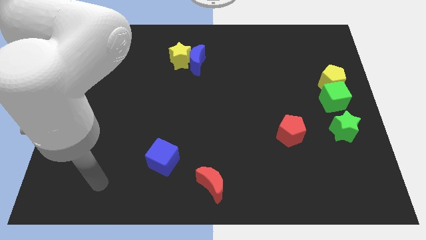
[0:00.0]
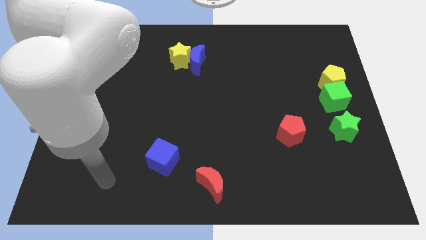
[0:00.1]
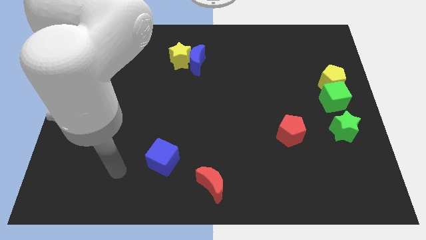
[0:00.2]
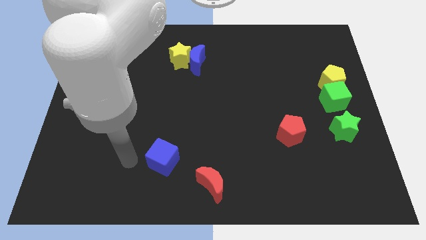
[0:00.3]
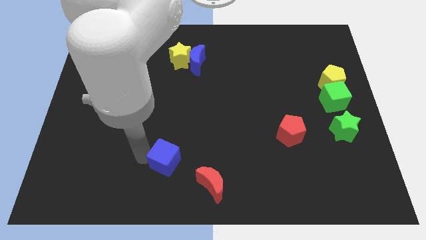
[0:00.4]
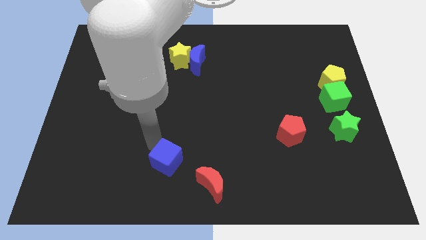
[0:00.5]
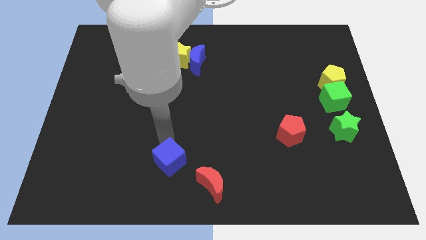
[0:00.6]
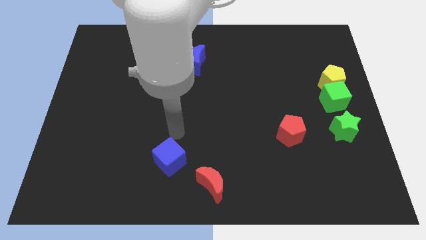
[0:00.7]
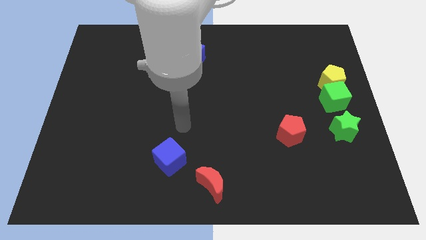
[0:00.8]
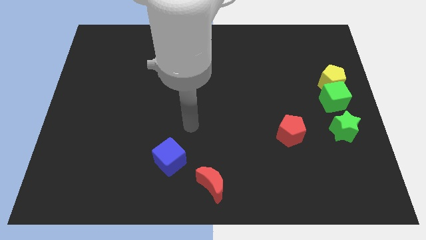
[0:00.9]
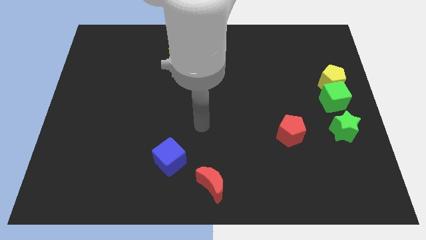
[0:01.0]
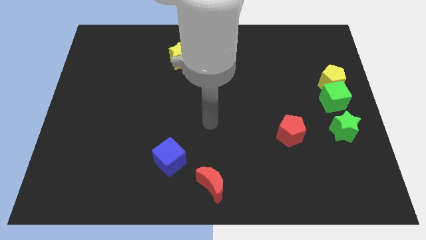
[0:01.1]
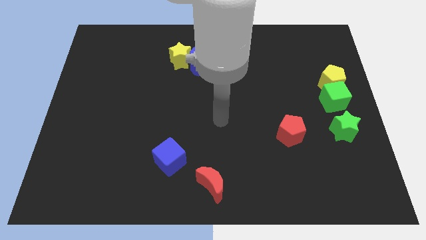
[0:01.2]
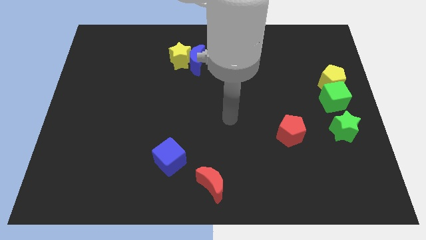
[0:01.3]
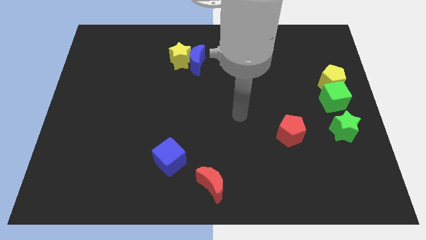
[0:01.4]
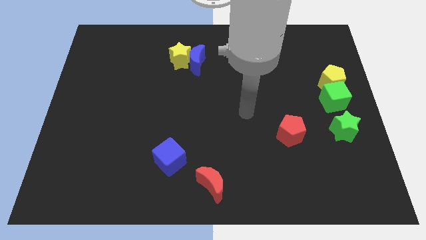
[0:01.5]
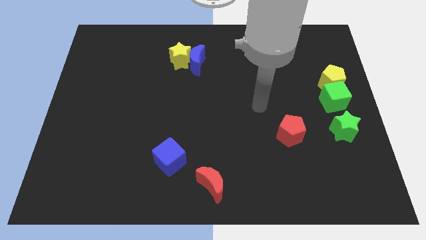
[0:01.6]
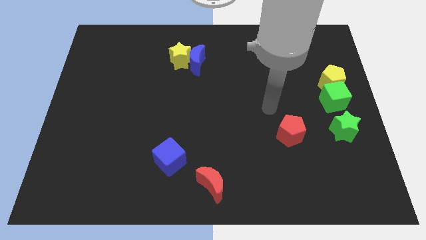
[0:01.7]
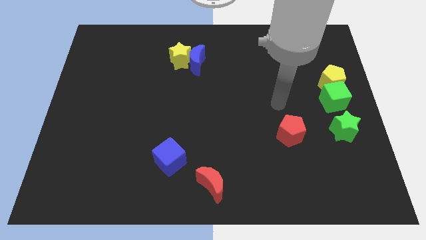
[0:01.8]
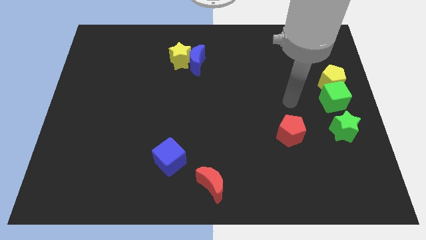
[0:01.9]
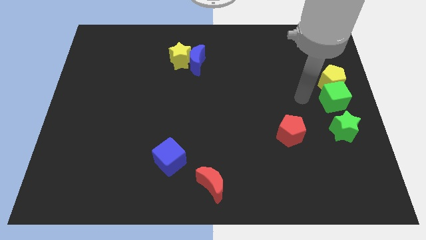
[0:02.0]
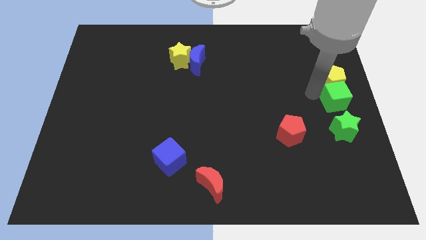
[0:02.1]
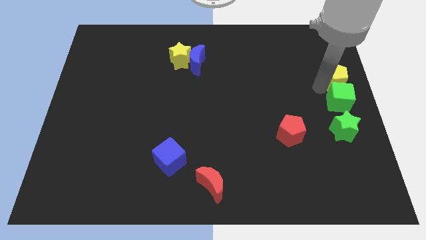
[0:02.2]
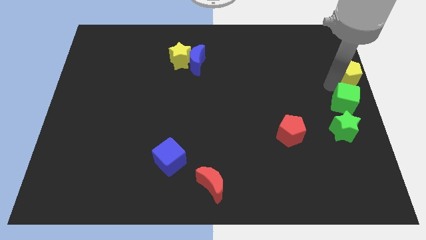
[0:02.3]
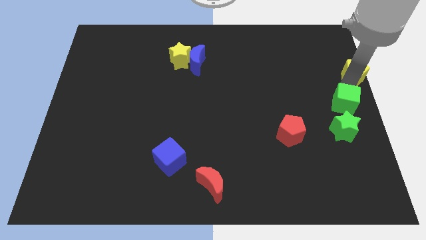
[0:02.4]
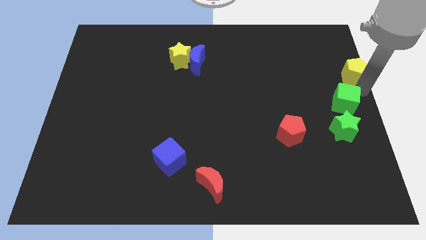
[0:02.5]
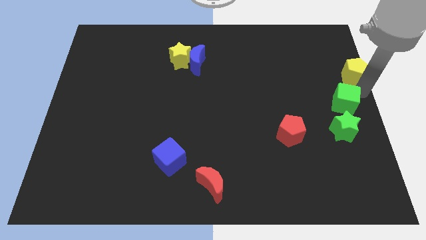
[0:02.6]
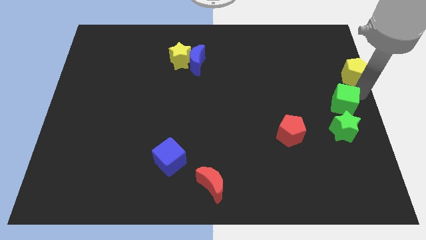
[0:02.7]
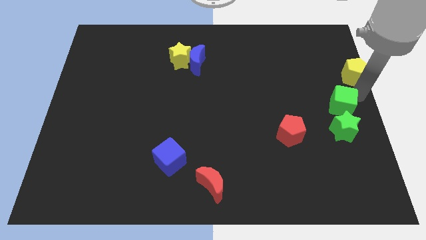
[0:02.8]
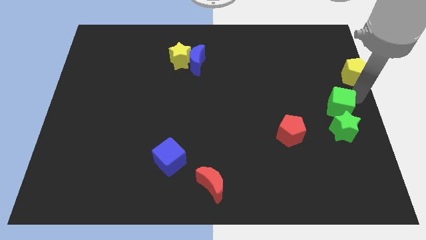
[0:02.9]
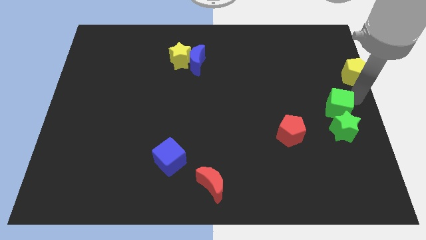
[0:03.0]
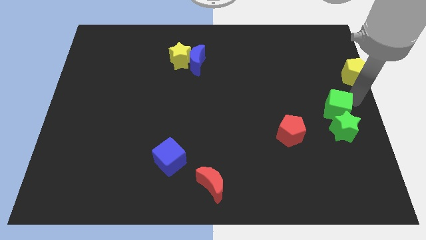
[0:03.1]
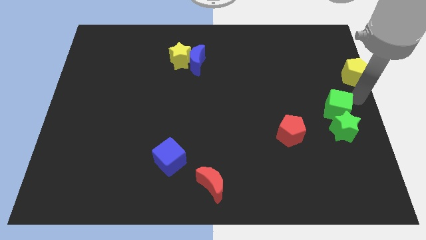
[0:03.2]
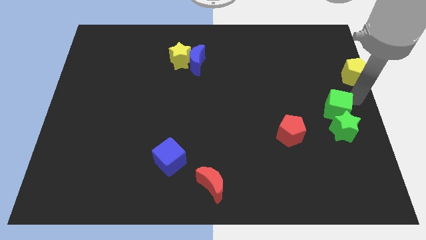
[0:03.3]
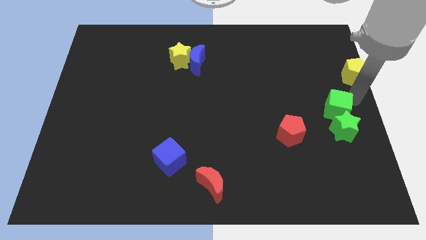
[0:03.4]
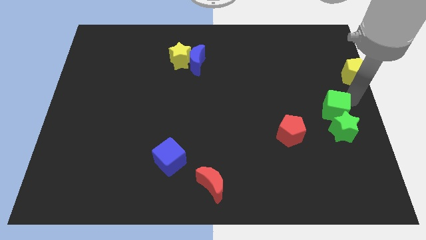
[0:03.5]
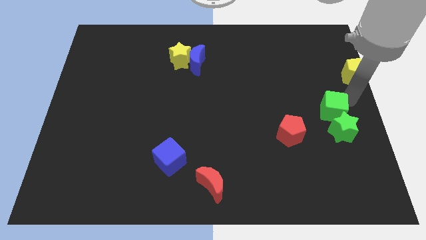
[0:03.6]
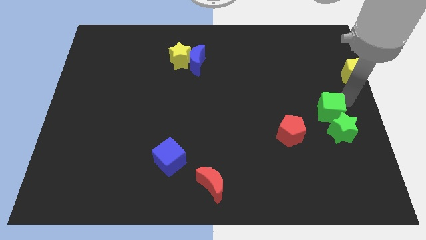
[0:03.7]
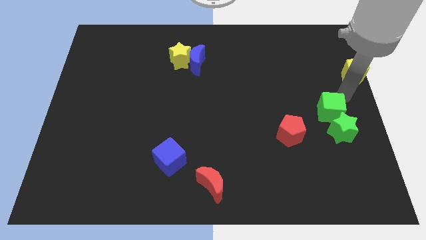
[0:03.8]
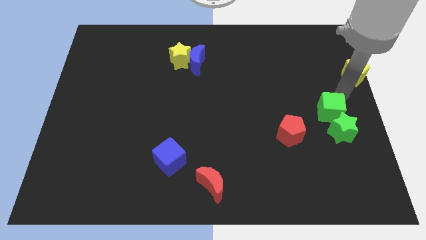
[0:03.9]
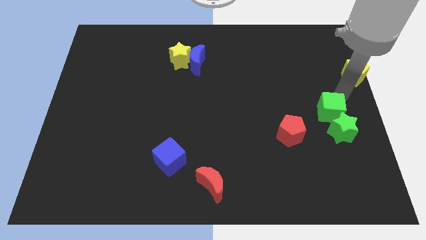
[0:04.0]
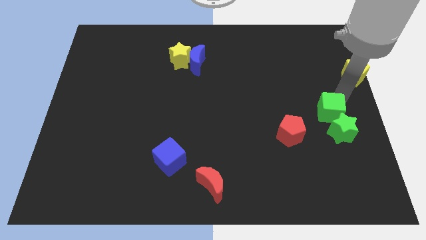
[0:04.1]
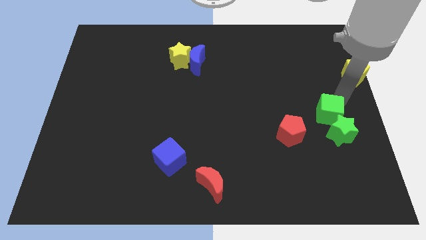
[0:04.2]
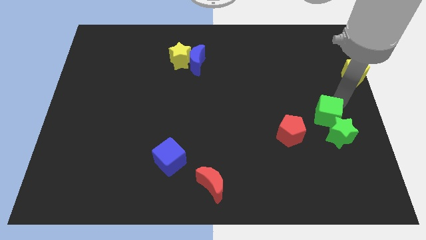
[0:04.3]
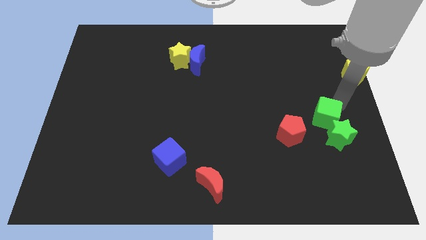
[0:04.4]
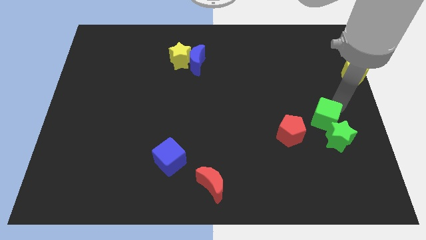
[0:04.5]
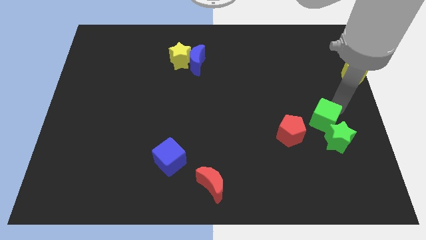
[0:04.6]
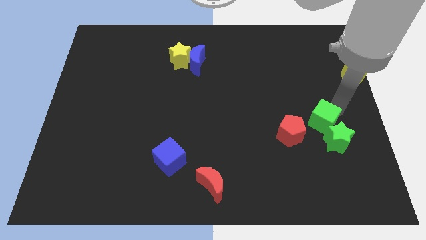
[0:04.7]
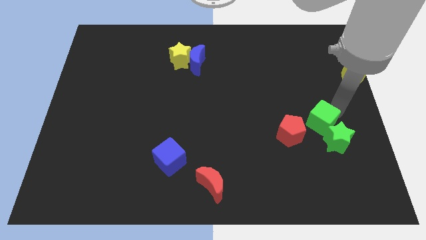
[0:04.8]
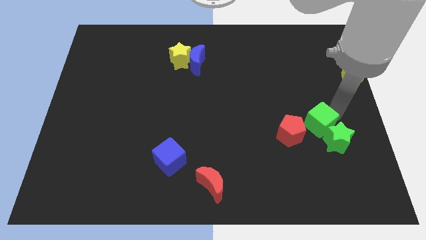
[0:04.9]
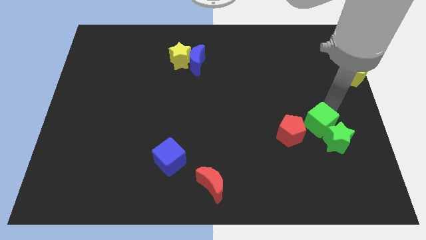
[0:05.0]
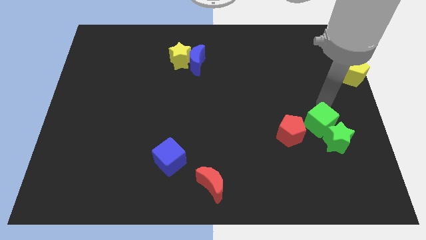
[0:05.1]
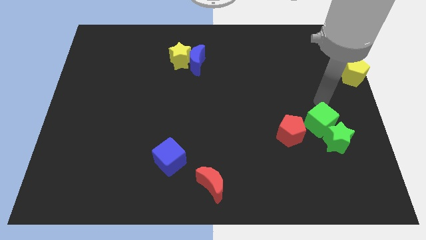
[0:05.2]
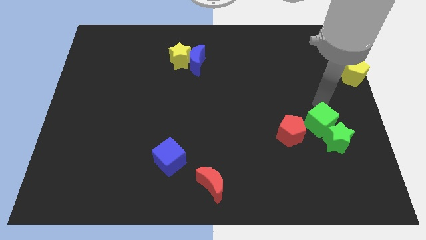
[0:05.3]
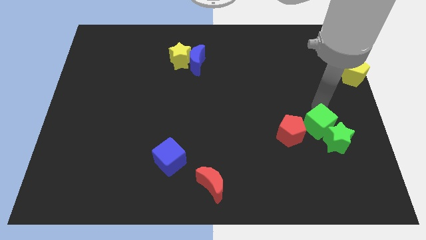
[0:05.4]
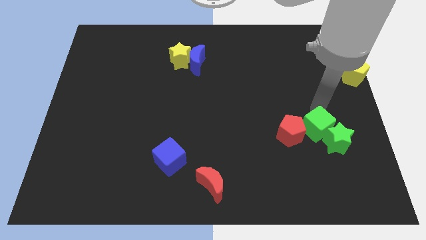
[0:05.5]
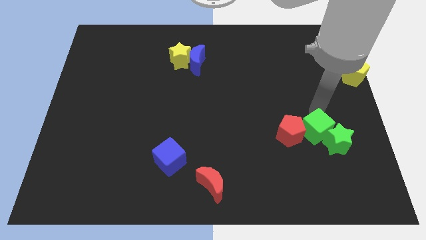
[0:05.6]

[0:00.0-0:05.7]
push the green cube diagonally down and to the right of the red pentagon

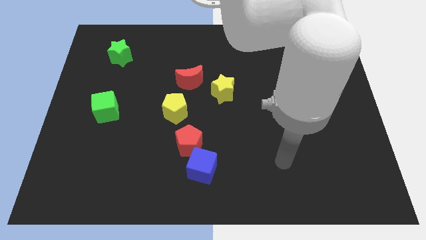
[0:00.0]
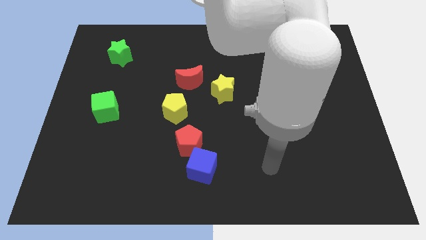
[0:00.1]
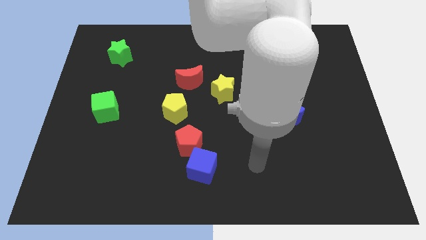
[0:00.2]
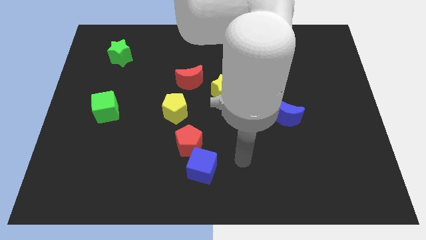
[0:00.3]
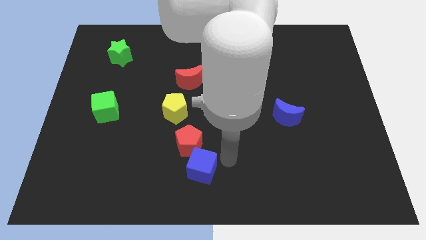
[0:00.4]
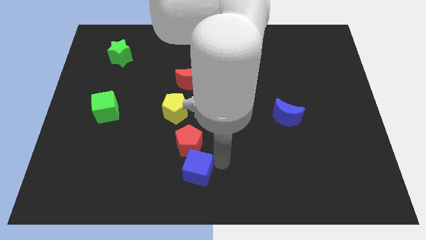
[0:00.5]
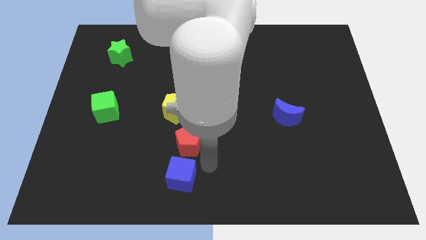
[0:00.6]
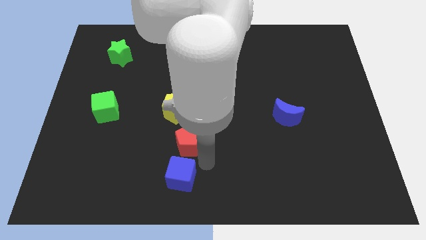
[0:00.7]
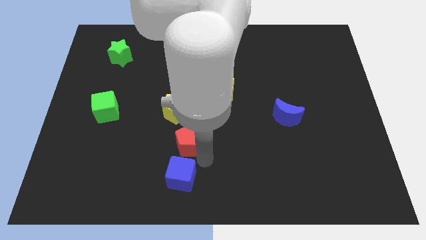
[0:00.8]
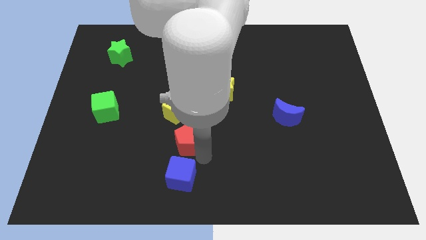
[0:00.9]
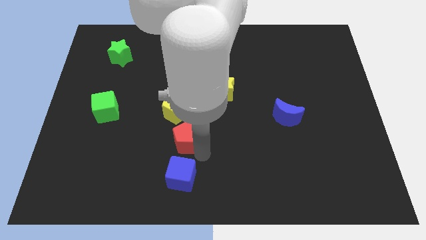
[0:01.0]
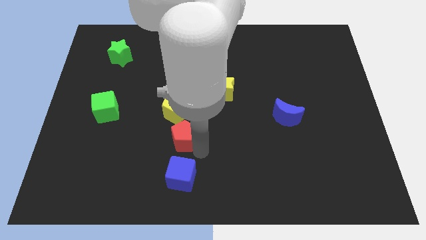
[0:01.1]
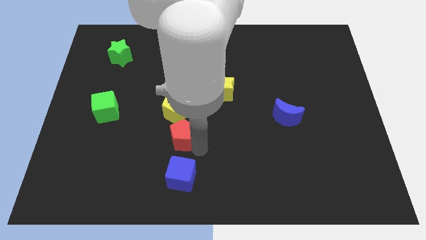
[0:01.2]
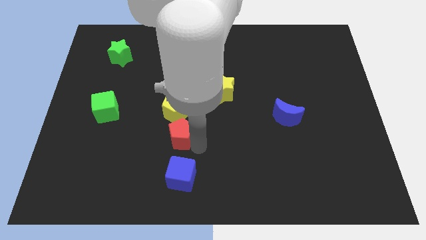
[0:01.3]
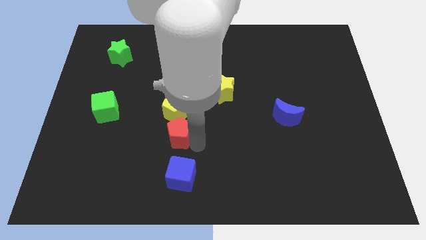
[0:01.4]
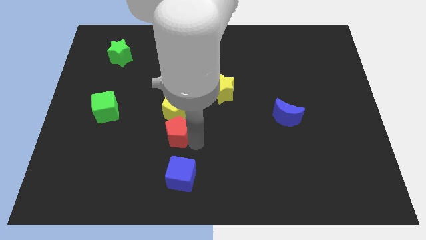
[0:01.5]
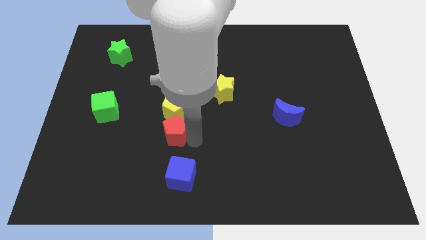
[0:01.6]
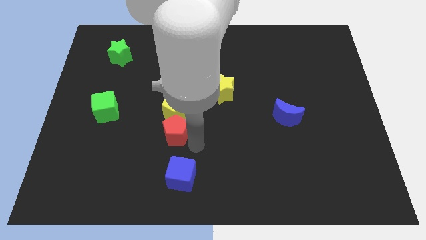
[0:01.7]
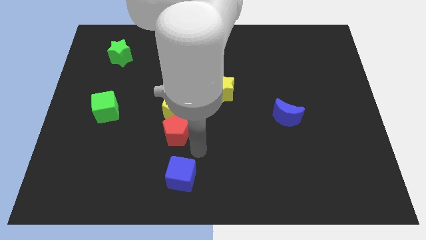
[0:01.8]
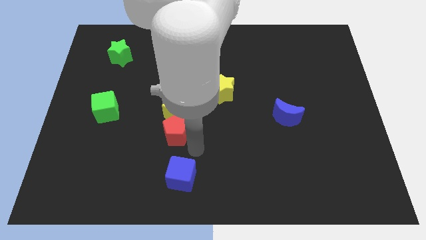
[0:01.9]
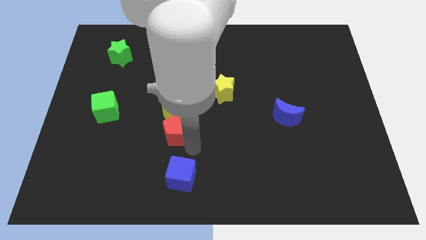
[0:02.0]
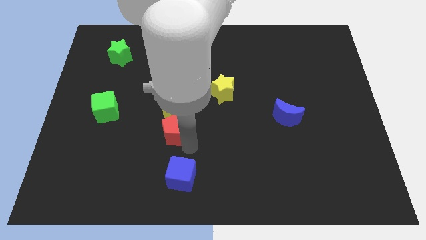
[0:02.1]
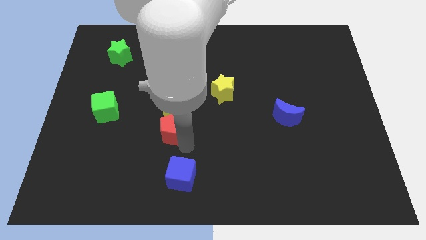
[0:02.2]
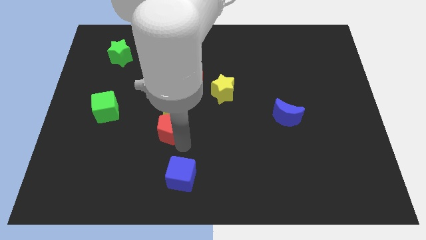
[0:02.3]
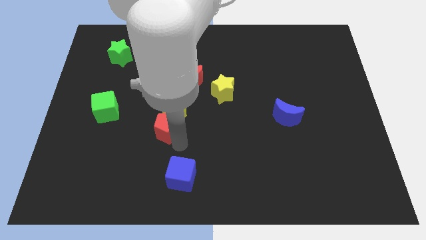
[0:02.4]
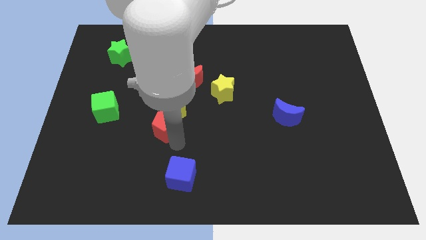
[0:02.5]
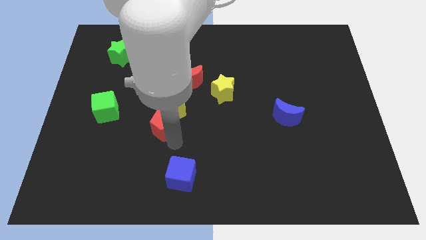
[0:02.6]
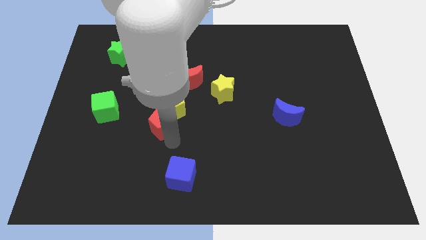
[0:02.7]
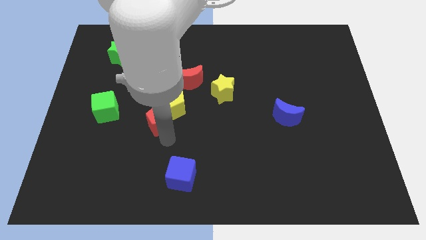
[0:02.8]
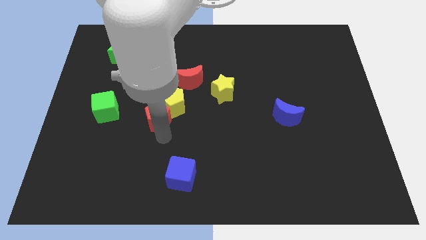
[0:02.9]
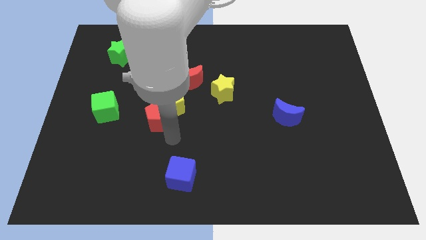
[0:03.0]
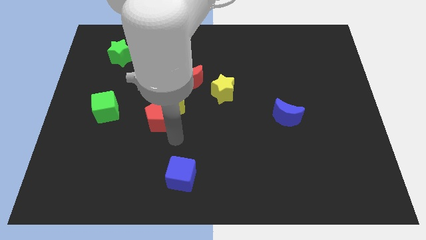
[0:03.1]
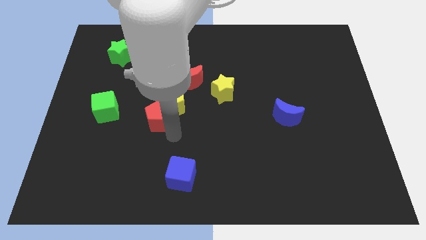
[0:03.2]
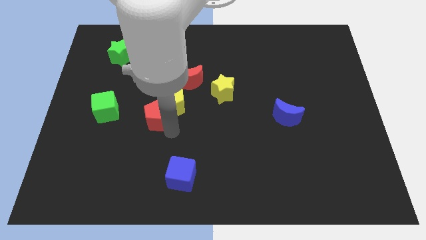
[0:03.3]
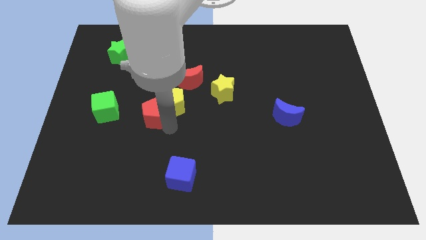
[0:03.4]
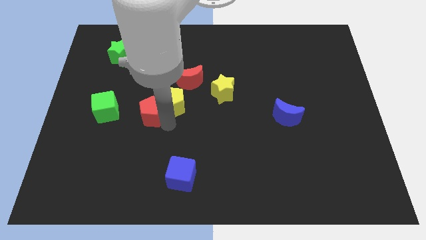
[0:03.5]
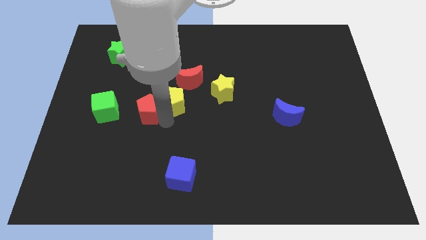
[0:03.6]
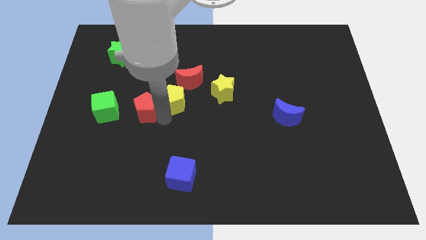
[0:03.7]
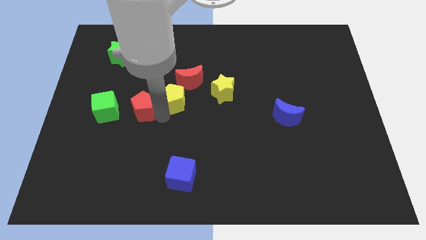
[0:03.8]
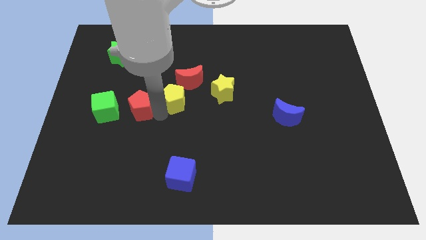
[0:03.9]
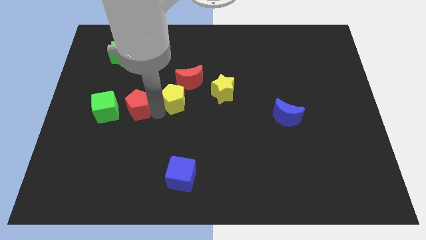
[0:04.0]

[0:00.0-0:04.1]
put the red pentagon diagonally up and to the right of the green cube
